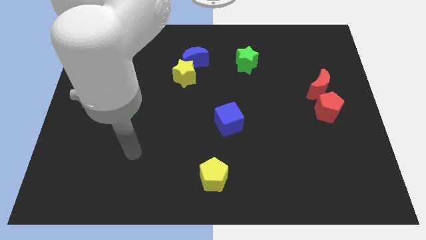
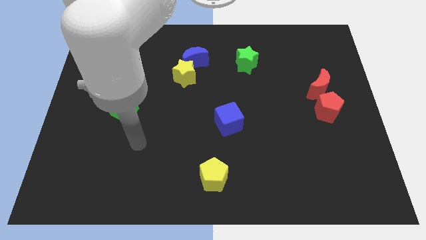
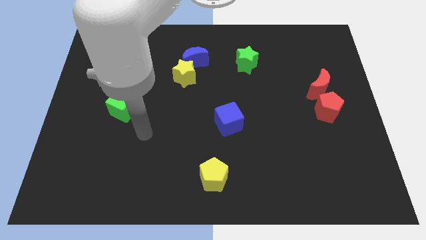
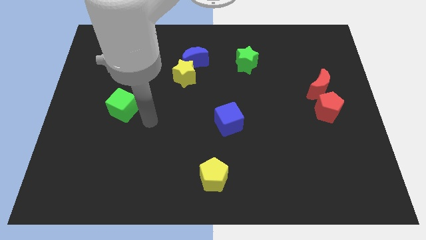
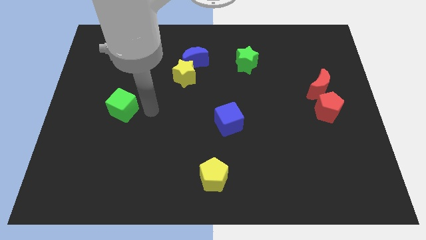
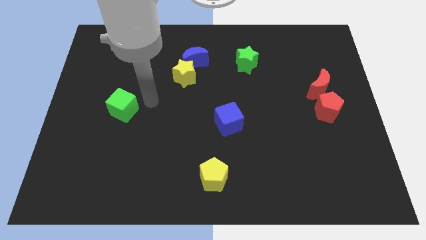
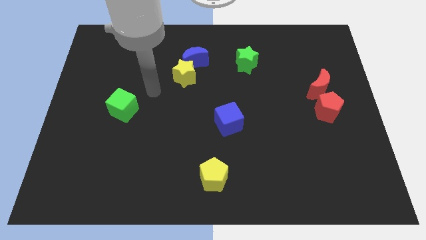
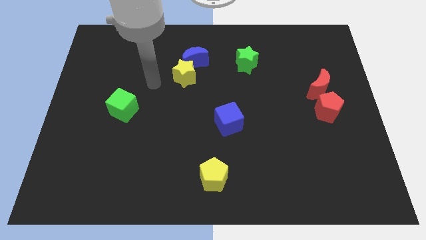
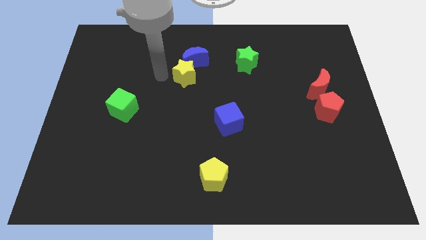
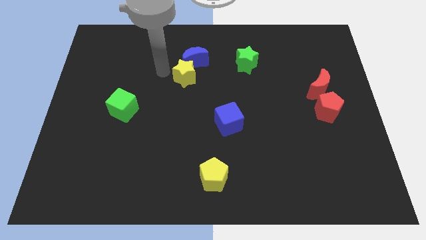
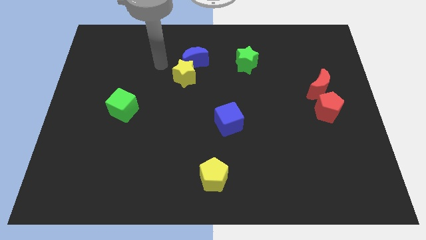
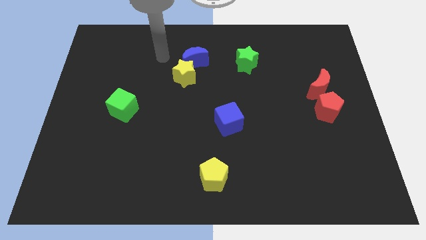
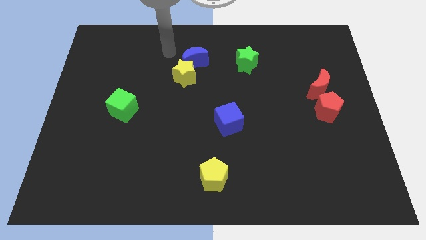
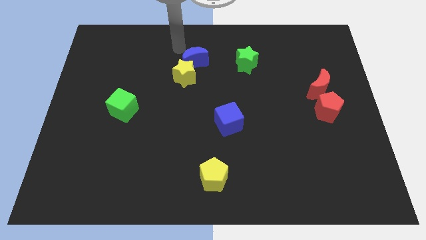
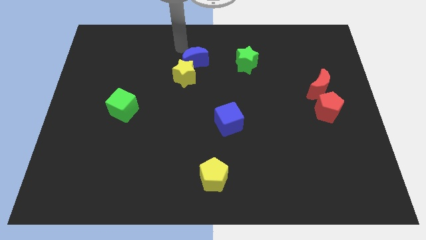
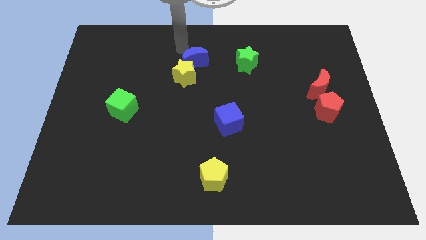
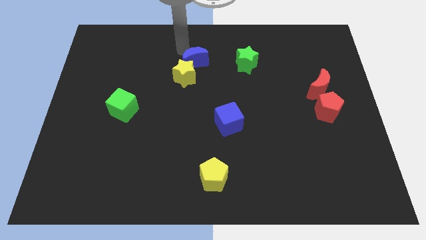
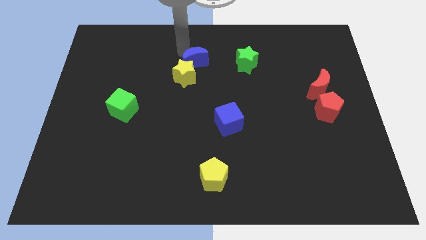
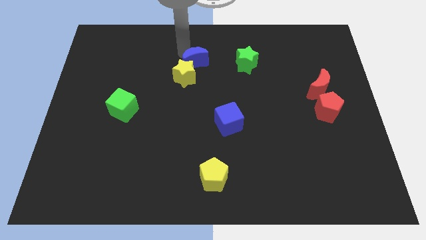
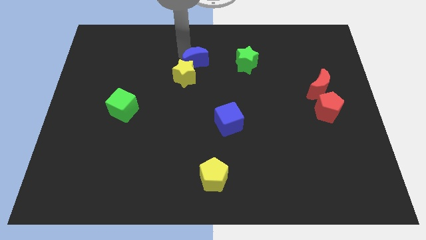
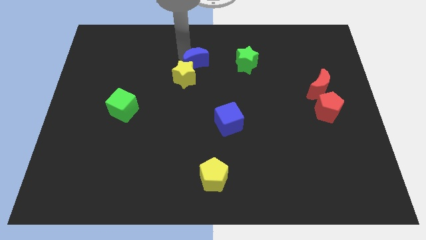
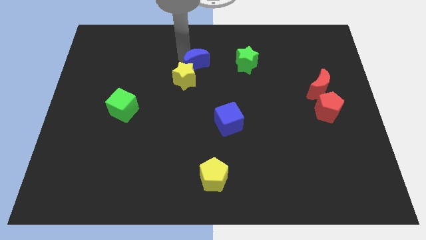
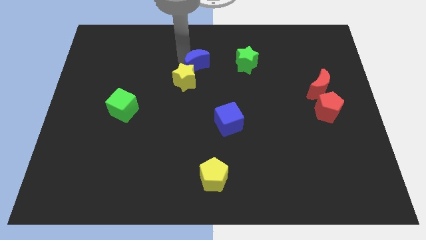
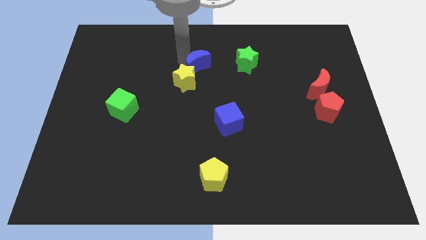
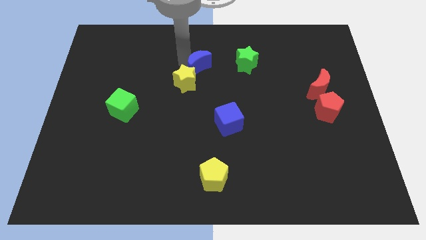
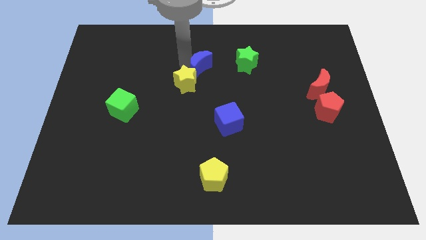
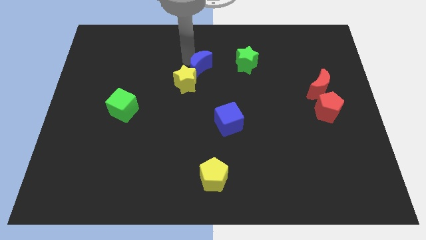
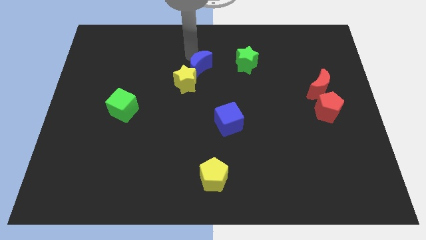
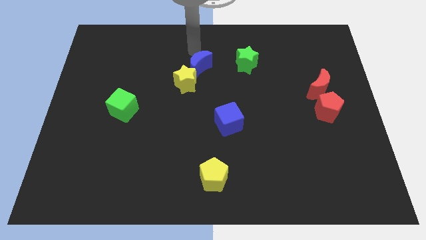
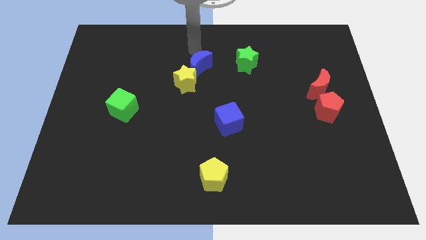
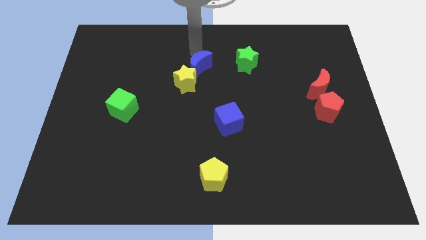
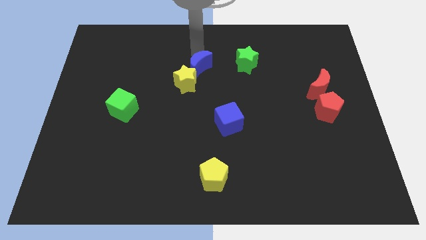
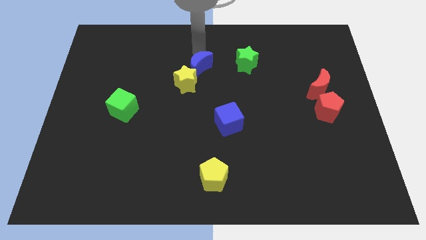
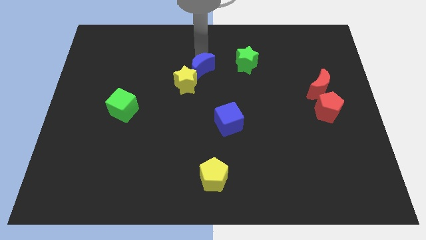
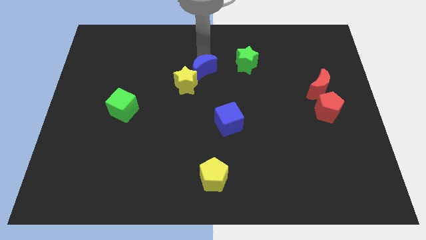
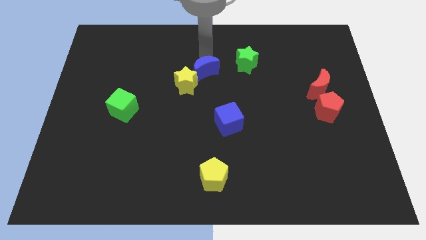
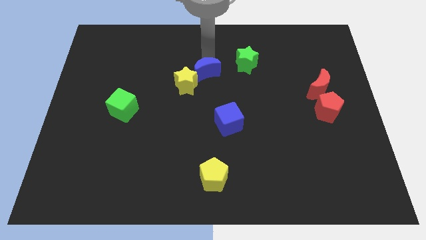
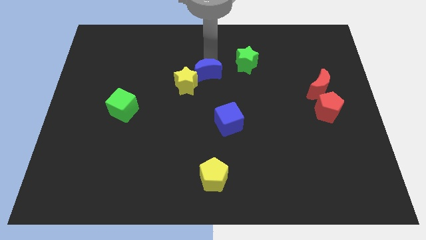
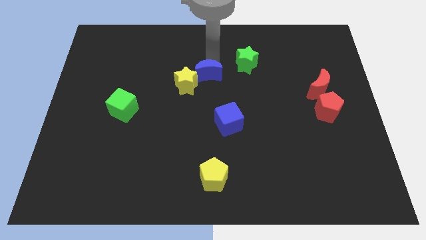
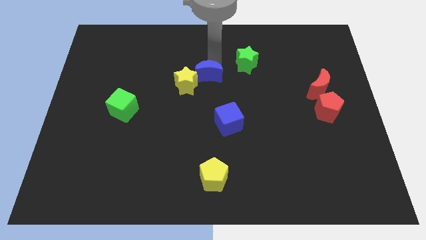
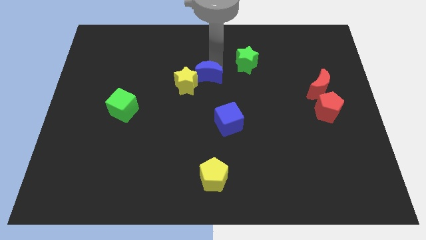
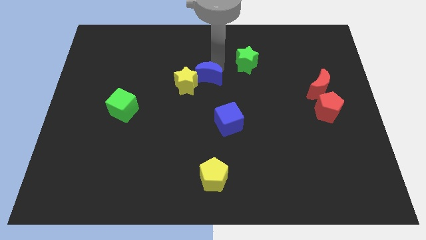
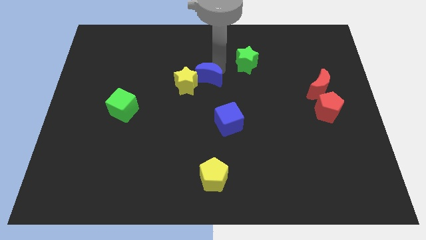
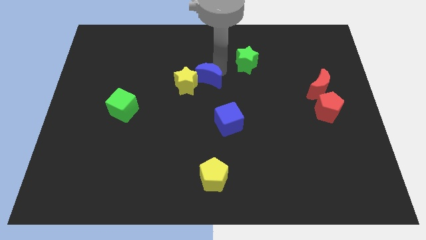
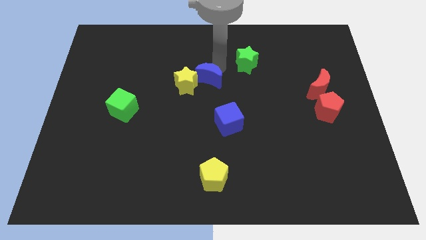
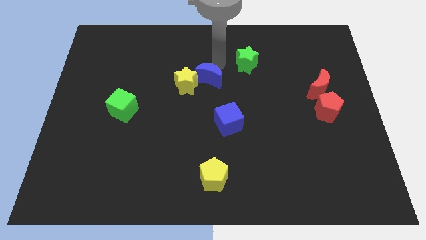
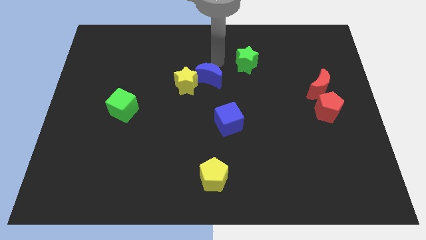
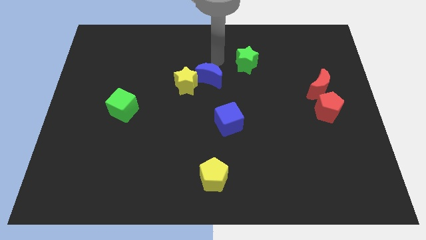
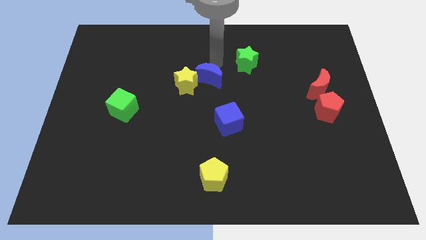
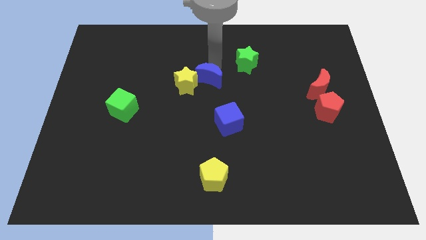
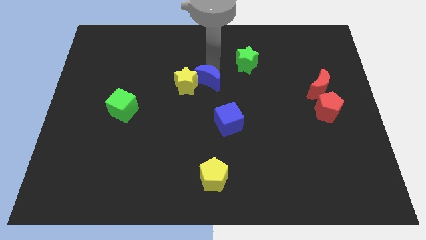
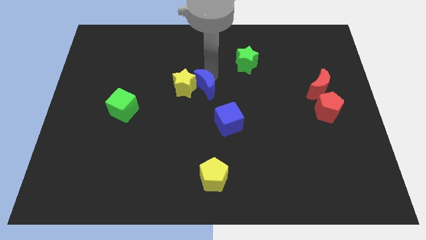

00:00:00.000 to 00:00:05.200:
push the blue moon a little down

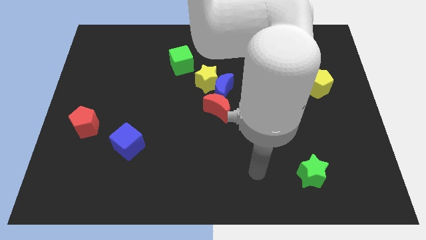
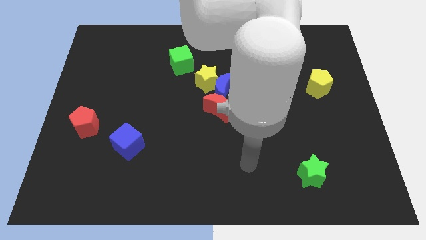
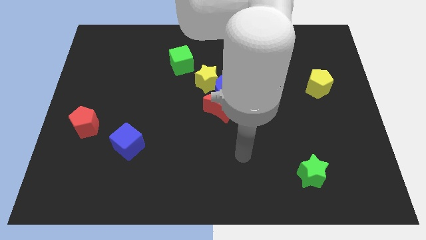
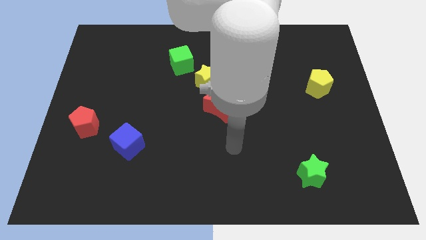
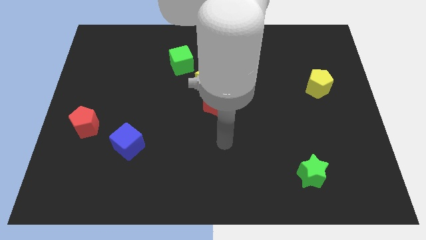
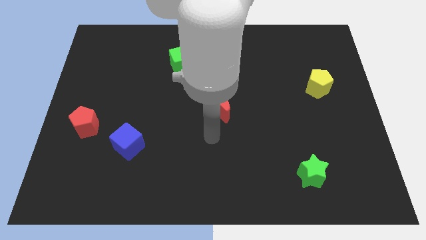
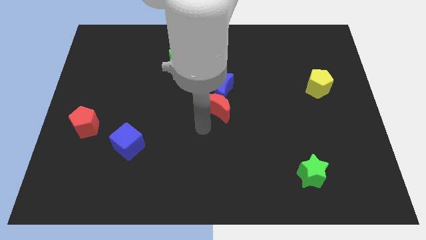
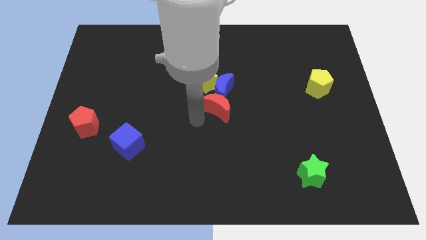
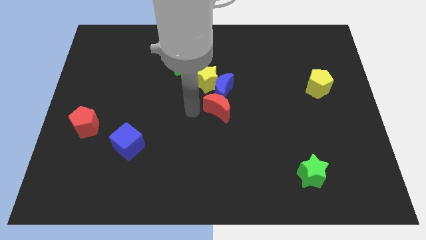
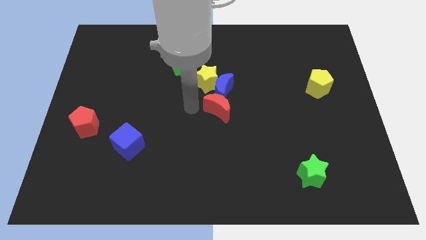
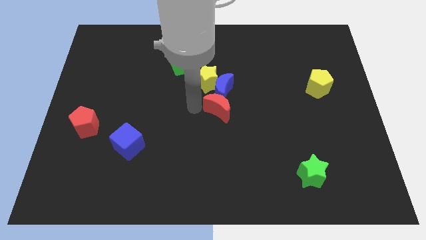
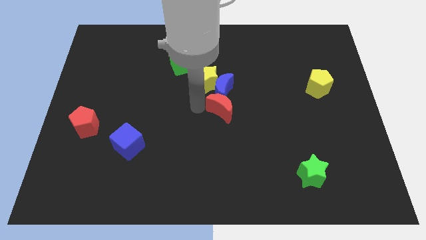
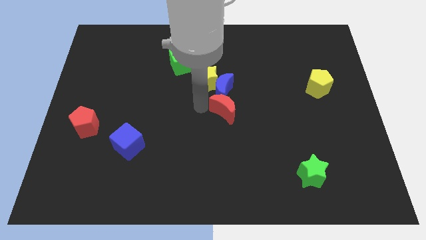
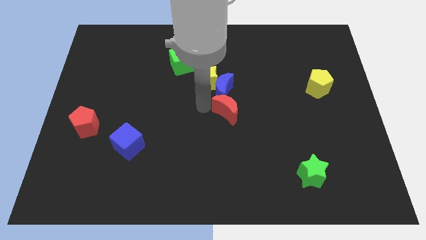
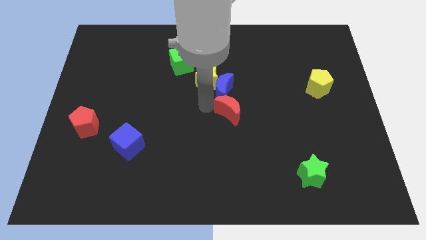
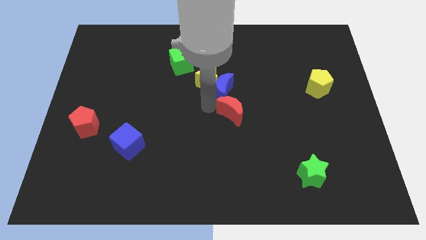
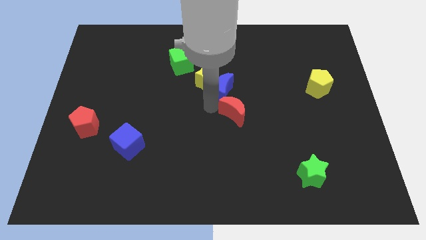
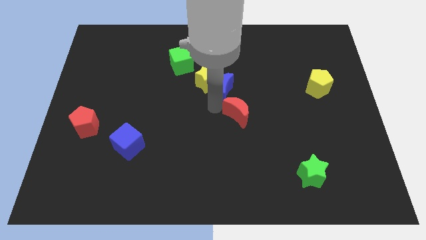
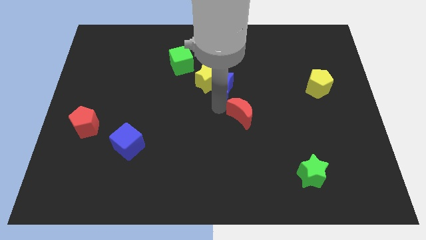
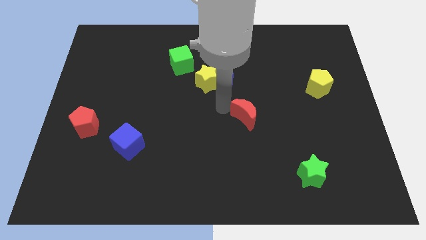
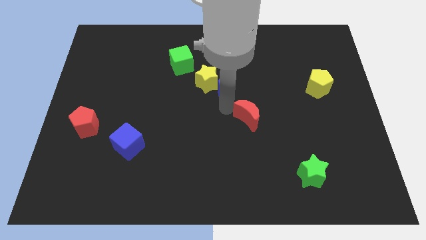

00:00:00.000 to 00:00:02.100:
slide the red moon a little right

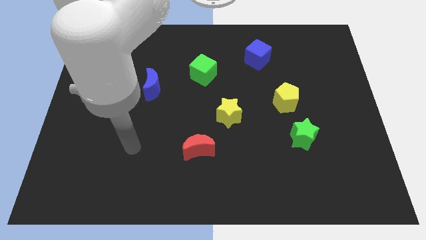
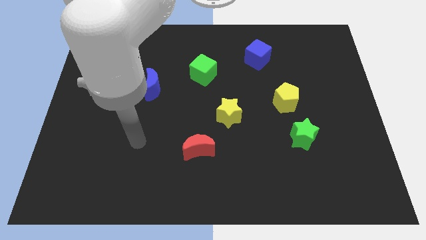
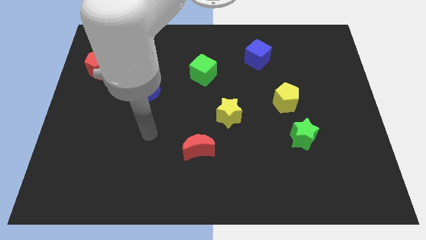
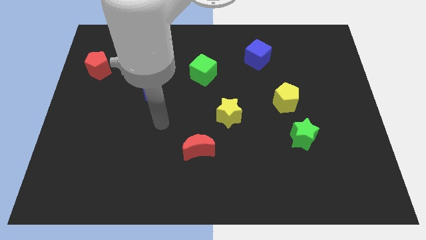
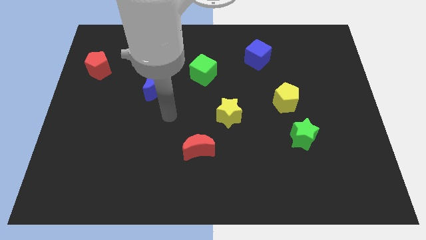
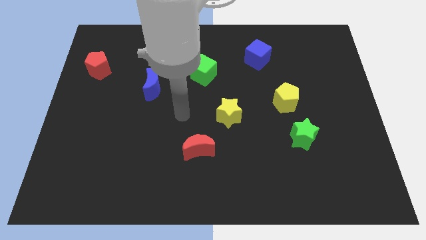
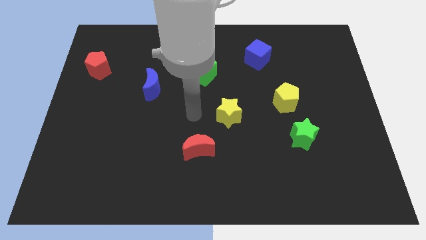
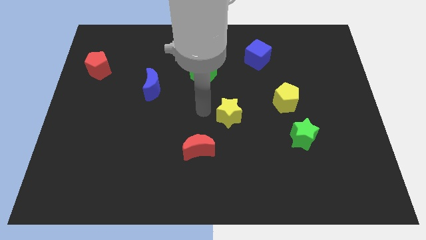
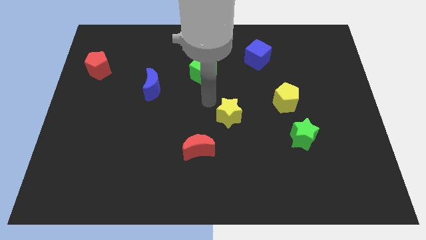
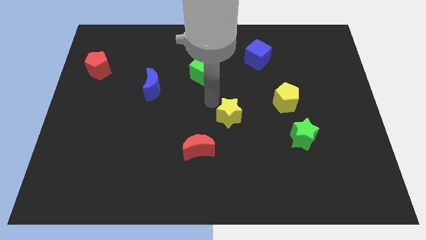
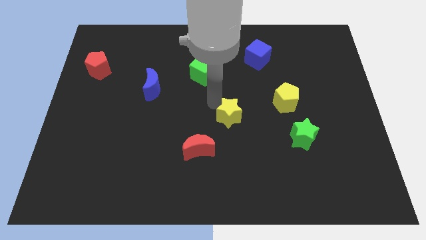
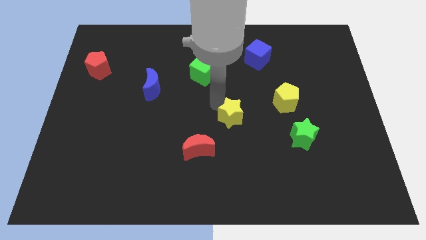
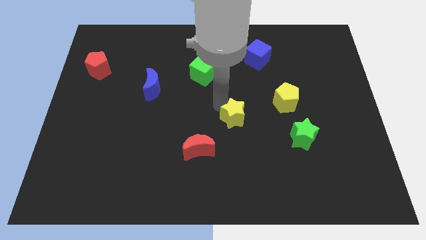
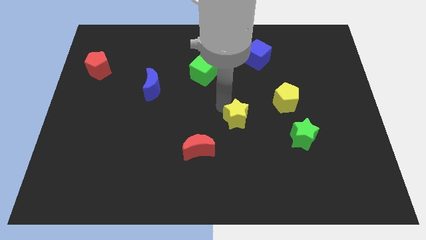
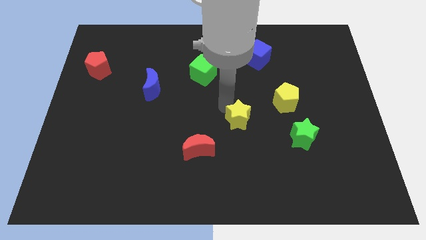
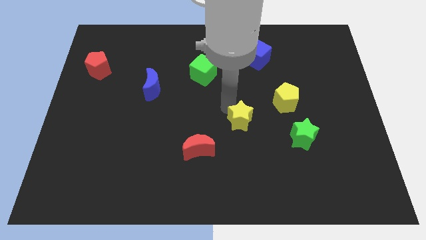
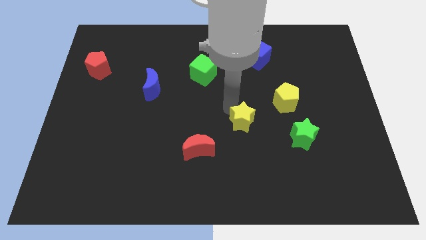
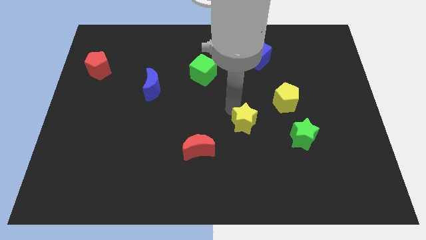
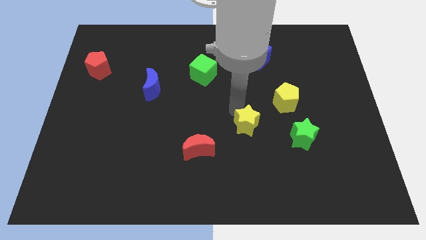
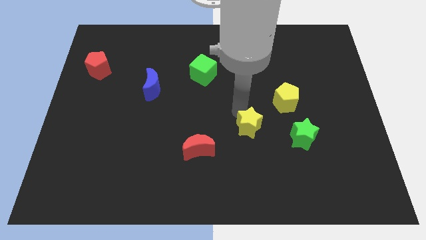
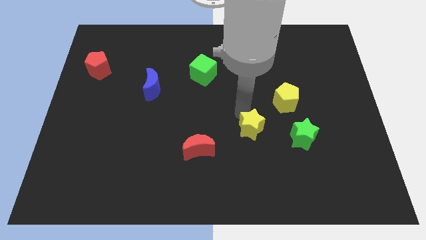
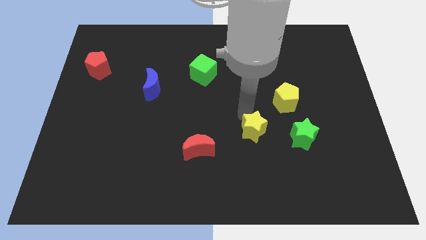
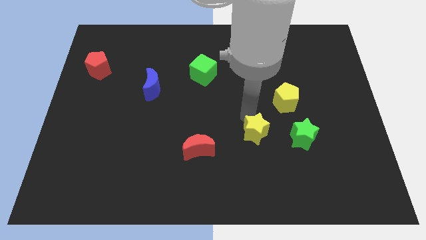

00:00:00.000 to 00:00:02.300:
move the yellow star downwards and right diagonally somewhat
